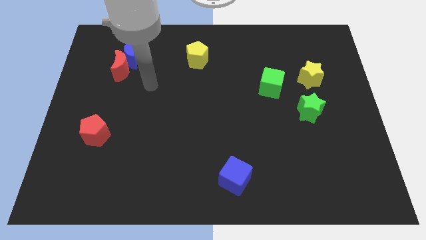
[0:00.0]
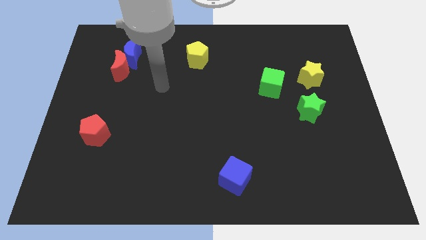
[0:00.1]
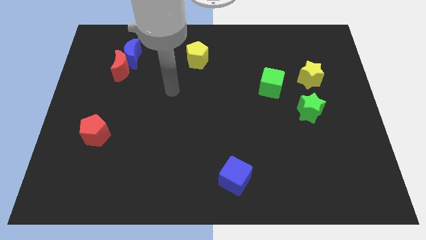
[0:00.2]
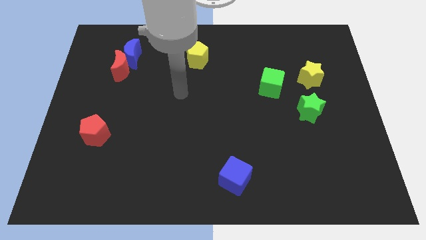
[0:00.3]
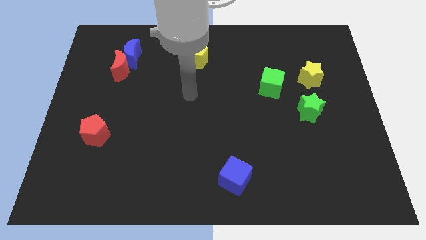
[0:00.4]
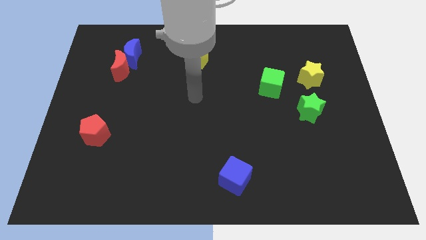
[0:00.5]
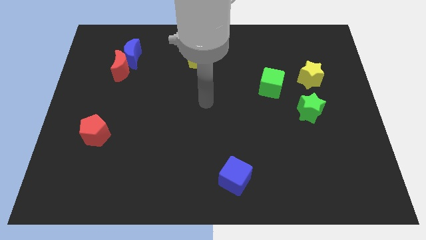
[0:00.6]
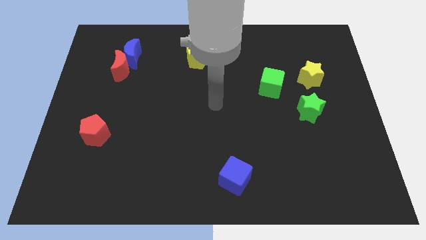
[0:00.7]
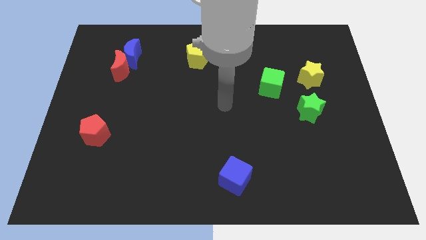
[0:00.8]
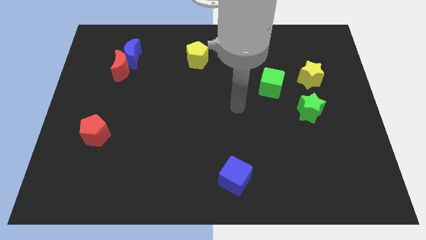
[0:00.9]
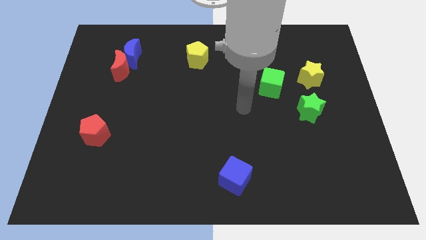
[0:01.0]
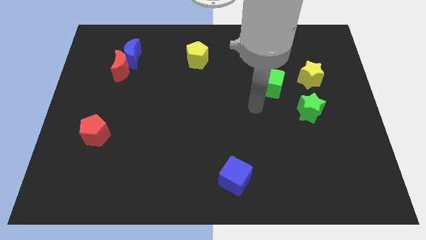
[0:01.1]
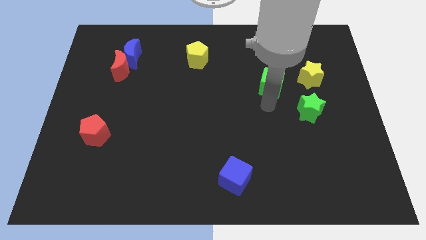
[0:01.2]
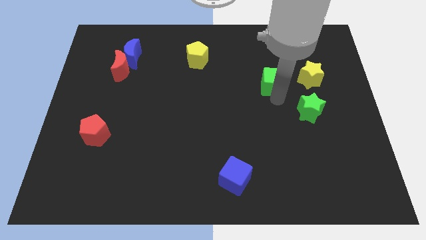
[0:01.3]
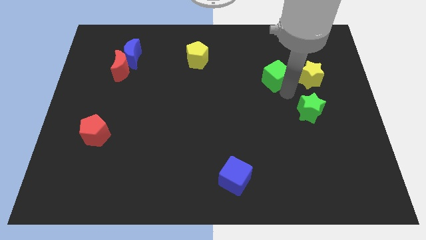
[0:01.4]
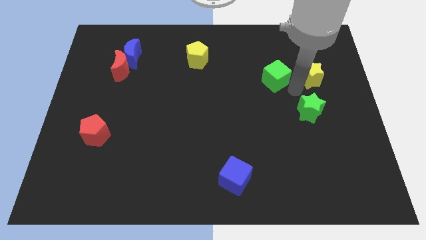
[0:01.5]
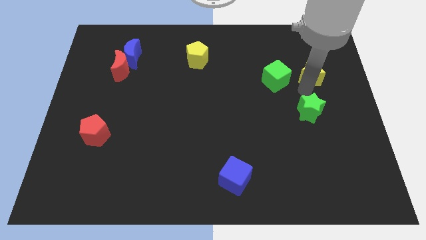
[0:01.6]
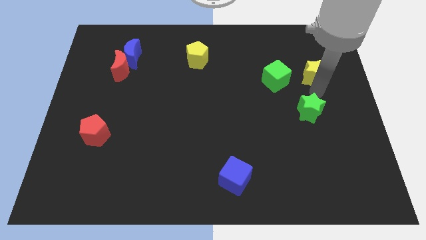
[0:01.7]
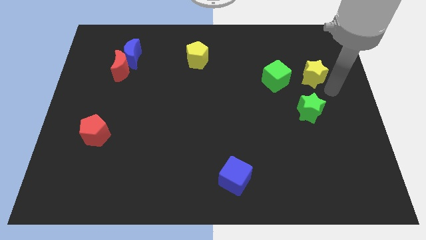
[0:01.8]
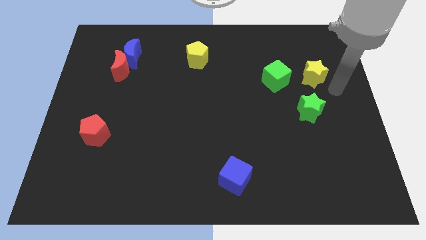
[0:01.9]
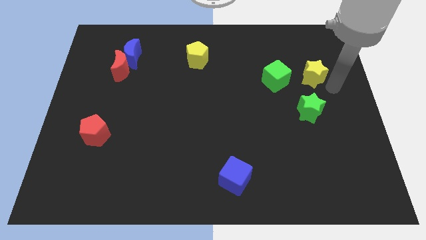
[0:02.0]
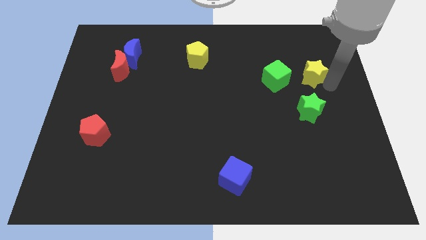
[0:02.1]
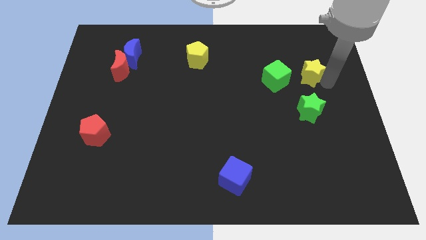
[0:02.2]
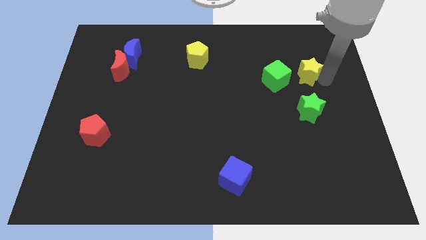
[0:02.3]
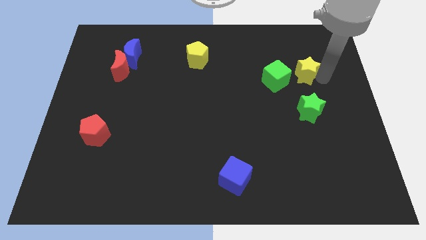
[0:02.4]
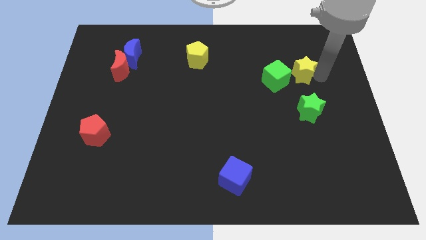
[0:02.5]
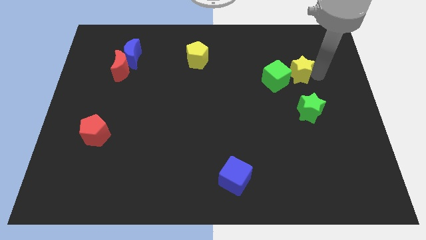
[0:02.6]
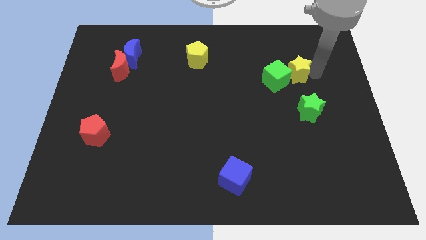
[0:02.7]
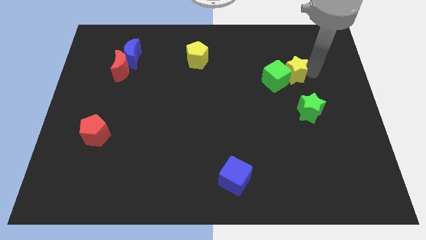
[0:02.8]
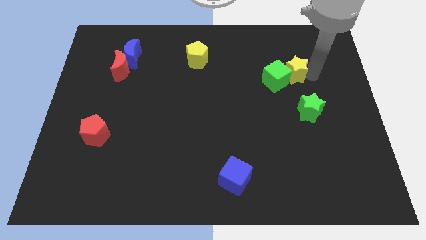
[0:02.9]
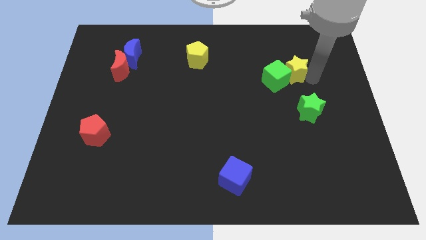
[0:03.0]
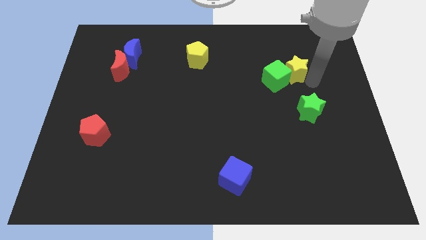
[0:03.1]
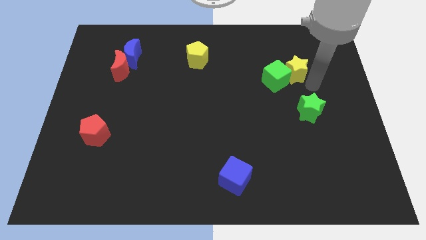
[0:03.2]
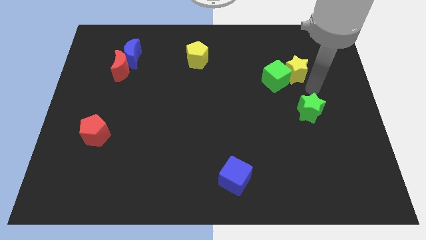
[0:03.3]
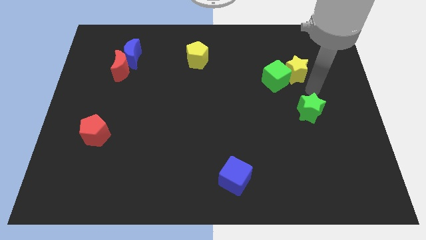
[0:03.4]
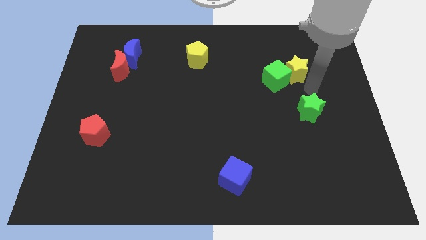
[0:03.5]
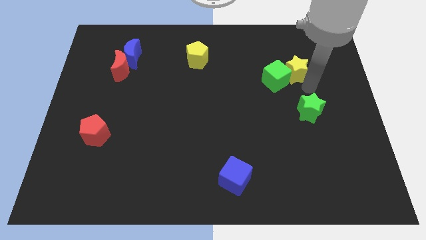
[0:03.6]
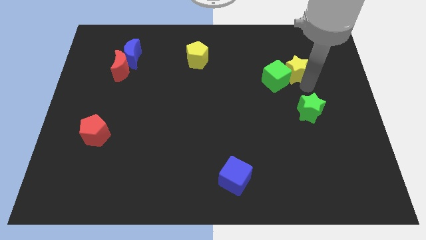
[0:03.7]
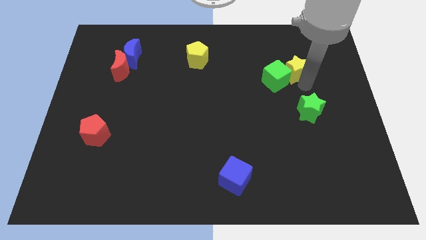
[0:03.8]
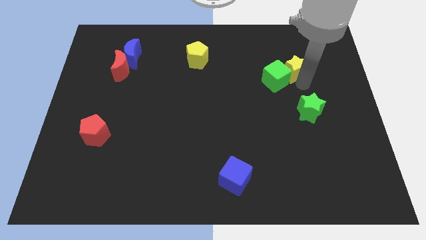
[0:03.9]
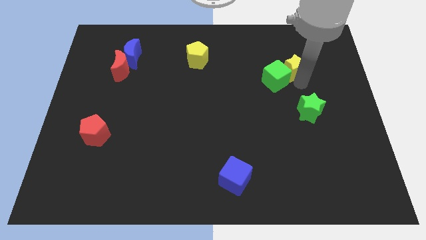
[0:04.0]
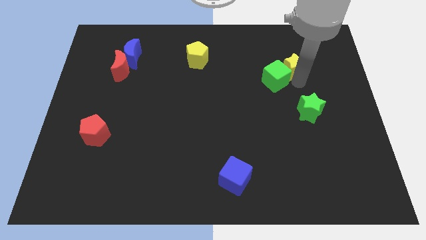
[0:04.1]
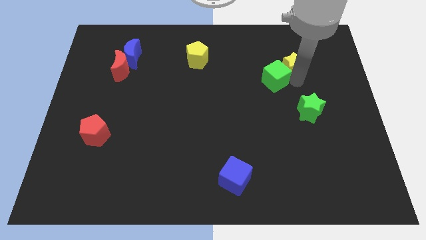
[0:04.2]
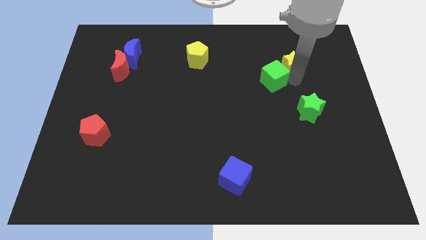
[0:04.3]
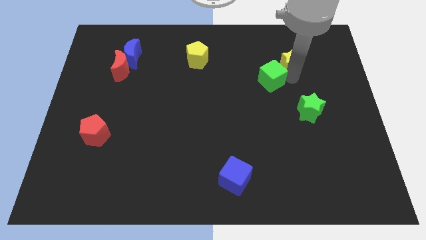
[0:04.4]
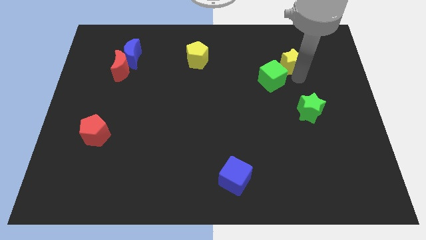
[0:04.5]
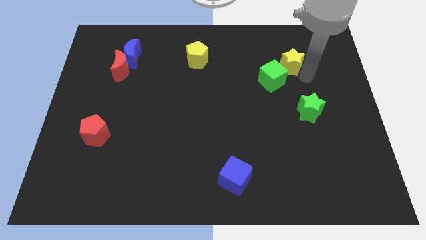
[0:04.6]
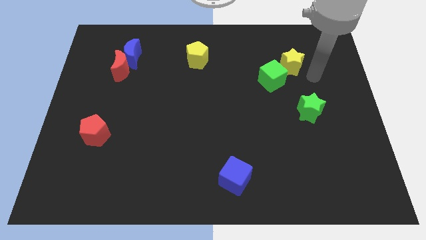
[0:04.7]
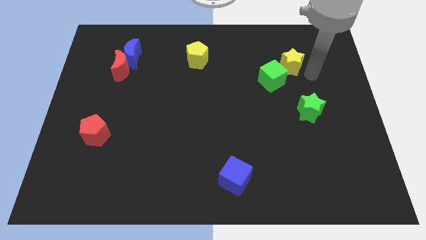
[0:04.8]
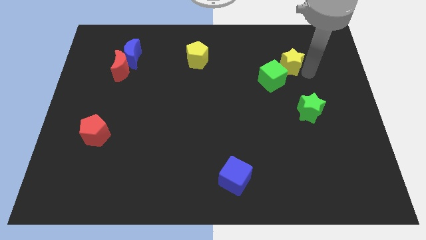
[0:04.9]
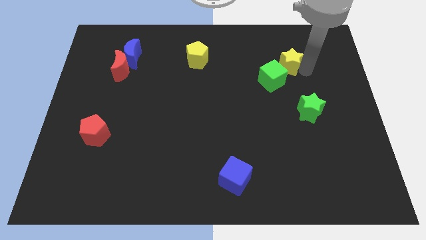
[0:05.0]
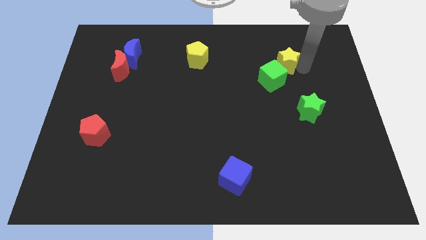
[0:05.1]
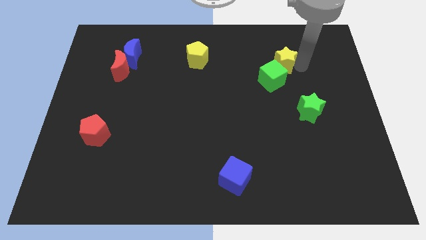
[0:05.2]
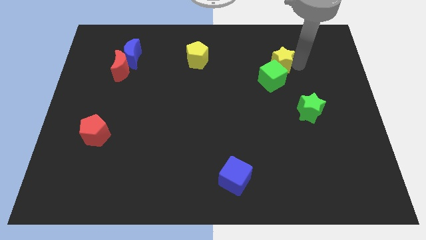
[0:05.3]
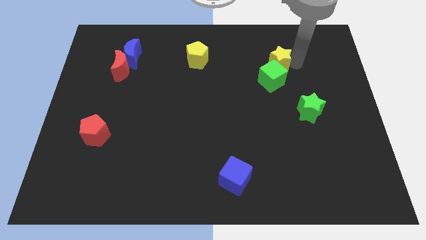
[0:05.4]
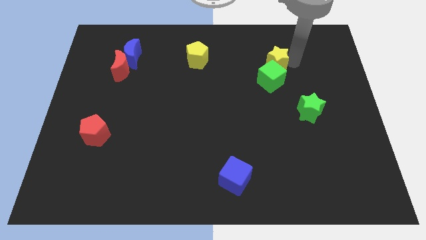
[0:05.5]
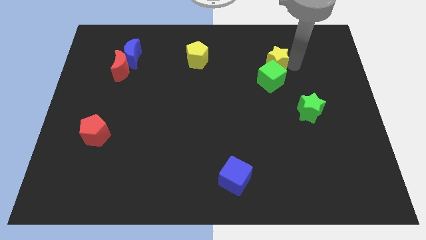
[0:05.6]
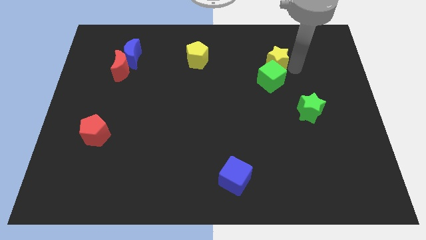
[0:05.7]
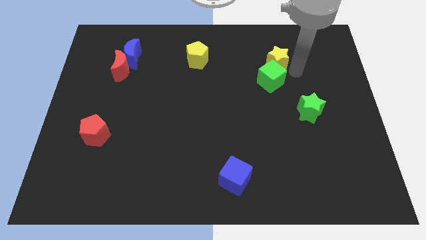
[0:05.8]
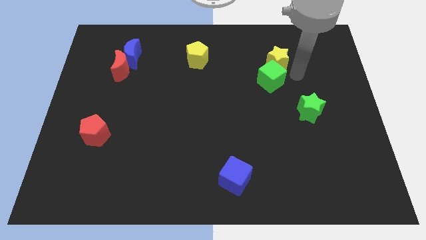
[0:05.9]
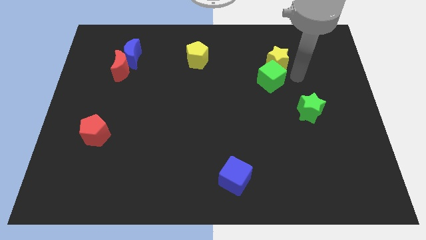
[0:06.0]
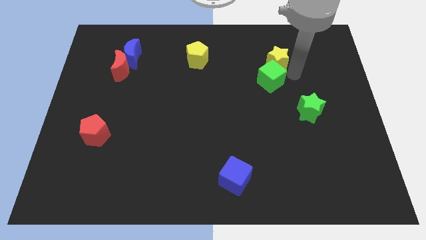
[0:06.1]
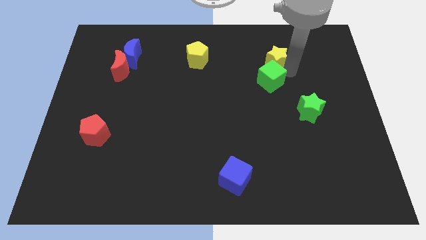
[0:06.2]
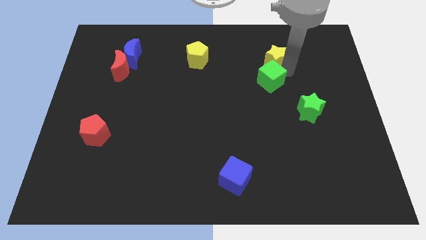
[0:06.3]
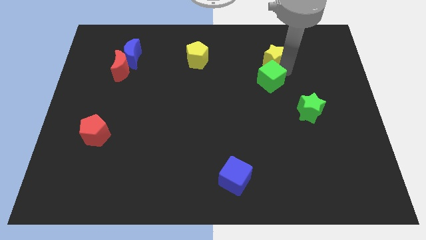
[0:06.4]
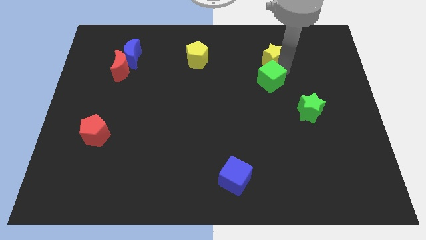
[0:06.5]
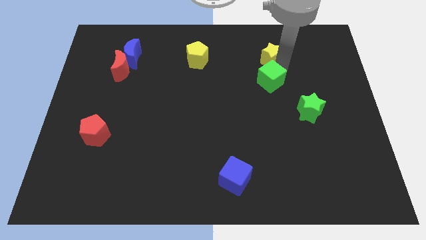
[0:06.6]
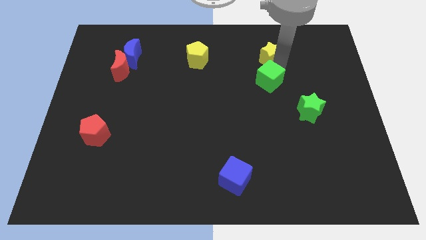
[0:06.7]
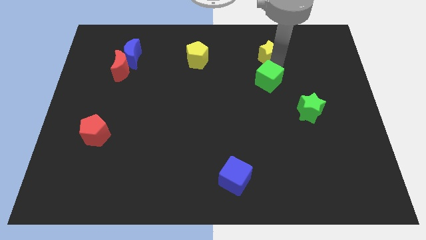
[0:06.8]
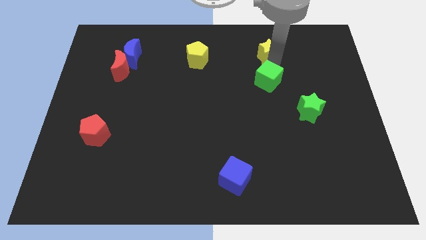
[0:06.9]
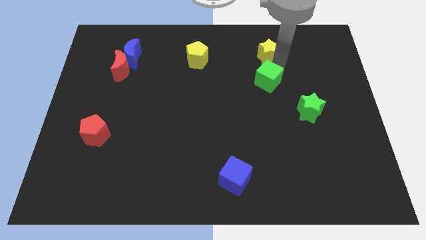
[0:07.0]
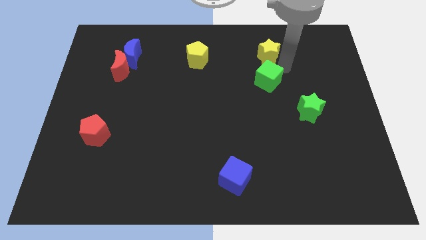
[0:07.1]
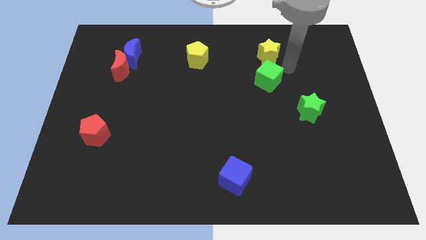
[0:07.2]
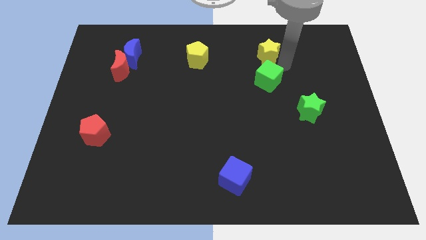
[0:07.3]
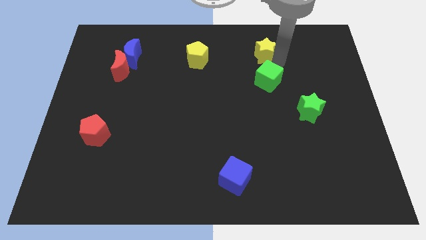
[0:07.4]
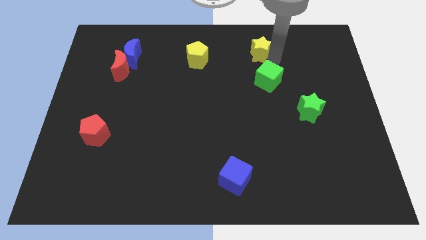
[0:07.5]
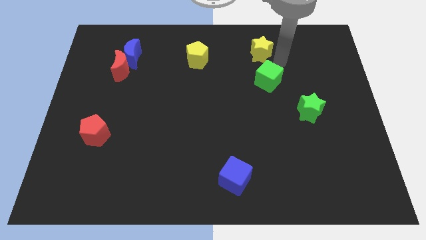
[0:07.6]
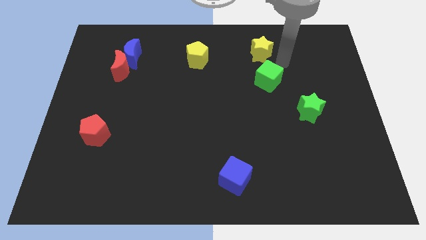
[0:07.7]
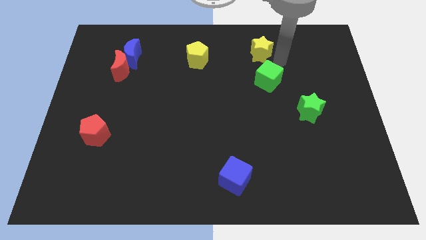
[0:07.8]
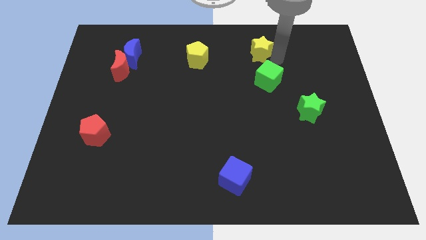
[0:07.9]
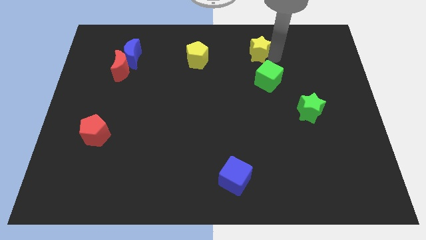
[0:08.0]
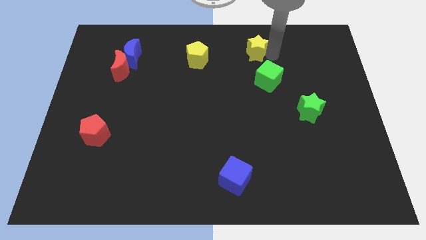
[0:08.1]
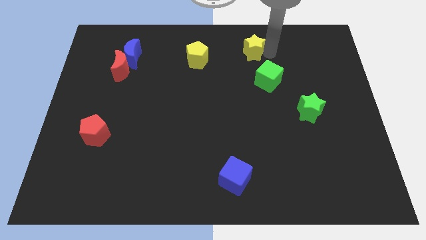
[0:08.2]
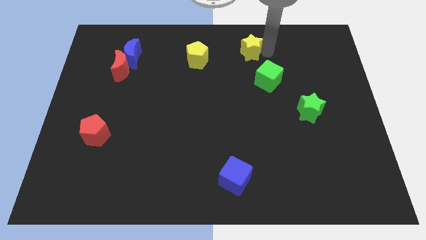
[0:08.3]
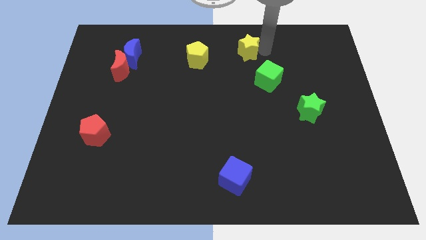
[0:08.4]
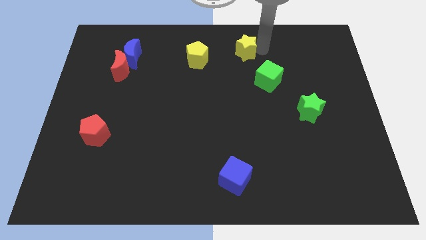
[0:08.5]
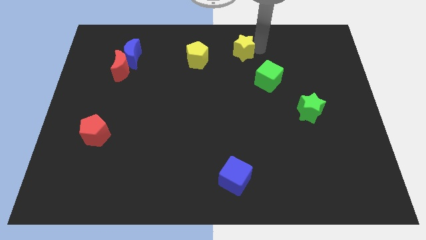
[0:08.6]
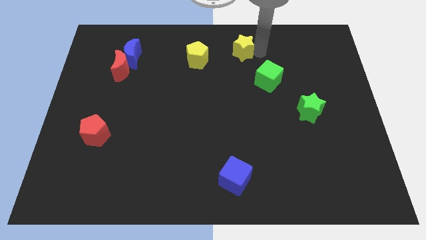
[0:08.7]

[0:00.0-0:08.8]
slide the yellow star to the towards your base
